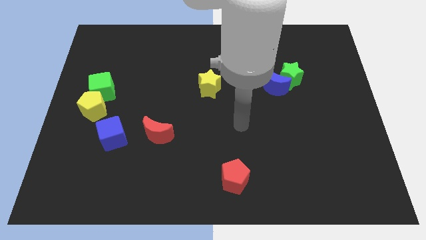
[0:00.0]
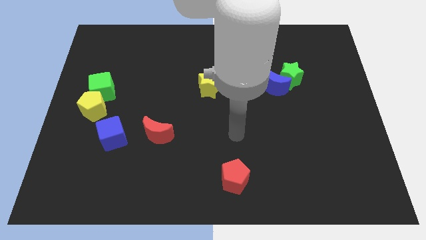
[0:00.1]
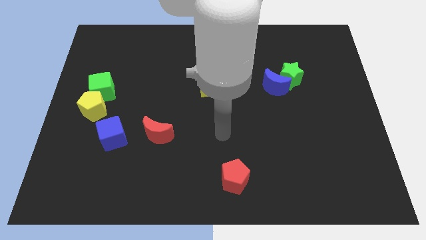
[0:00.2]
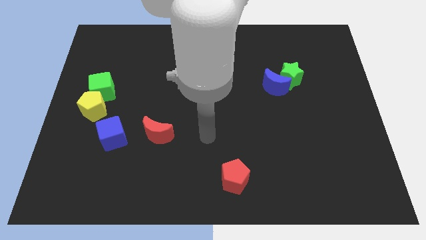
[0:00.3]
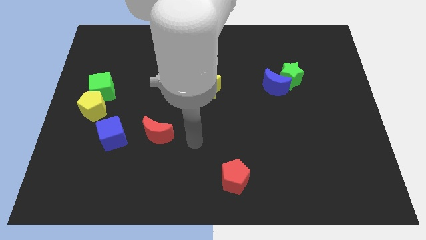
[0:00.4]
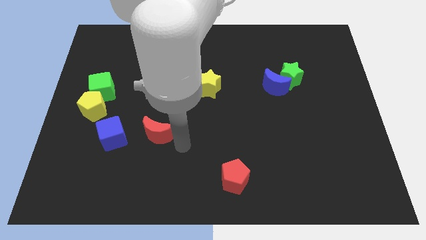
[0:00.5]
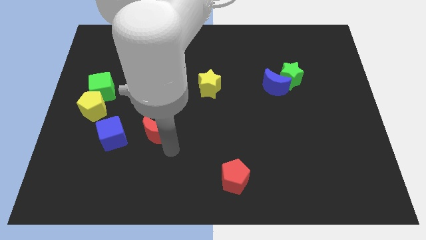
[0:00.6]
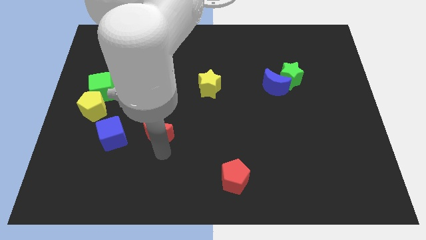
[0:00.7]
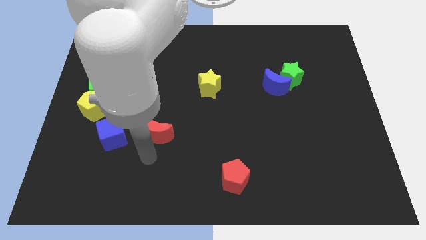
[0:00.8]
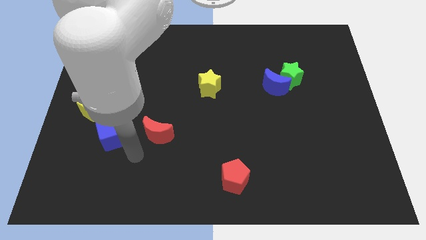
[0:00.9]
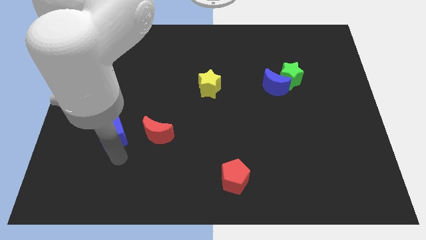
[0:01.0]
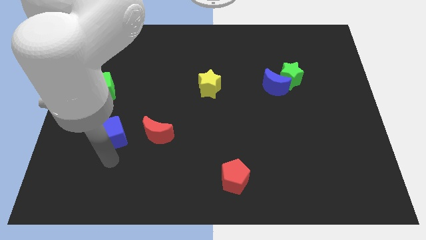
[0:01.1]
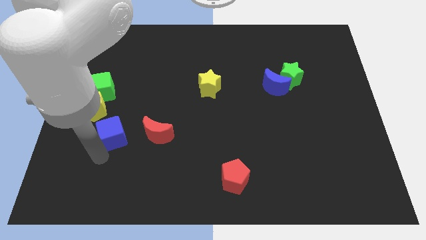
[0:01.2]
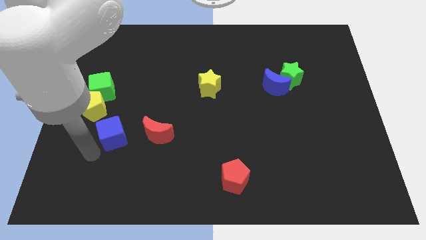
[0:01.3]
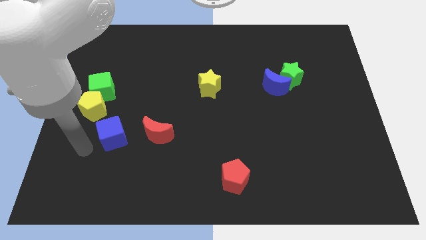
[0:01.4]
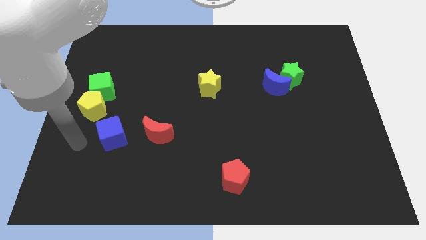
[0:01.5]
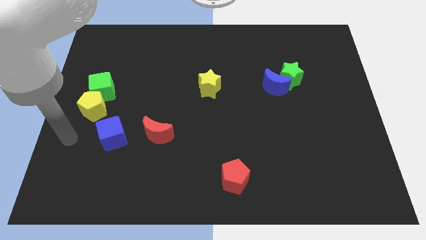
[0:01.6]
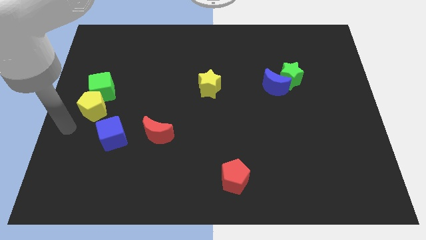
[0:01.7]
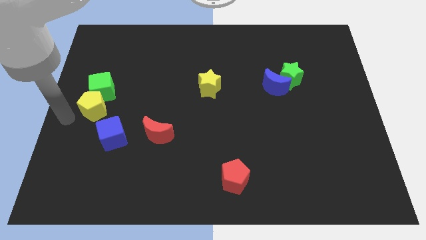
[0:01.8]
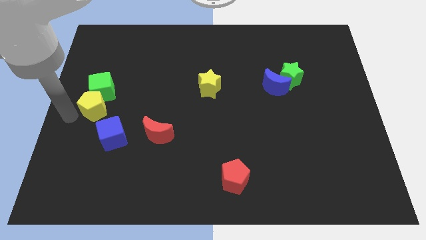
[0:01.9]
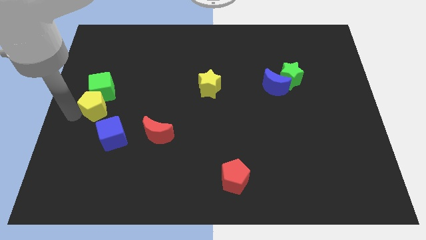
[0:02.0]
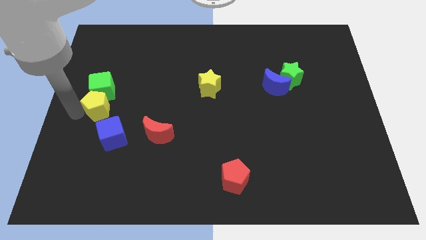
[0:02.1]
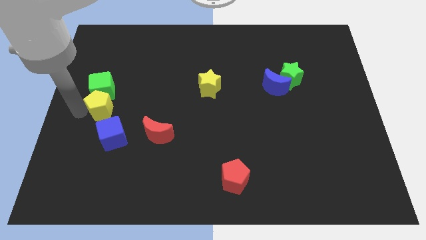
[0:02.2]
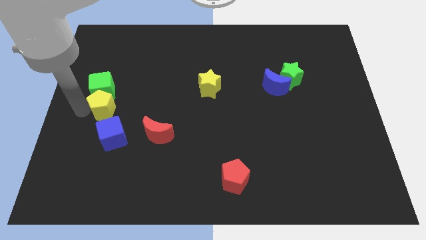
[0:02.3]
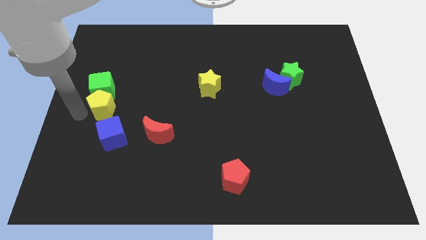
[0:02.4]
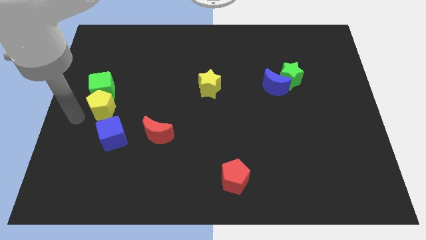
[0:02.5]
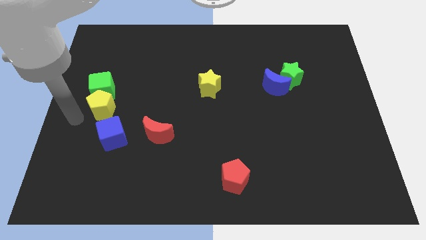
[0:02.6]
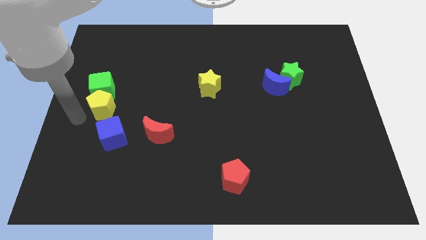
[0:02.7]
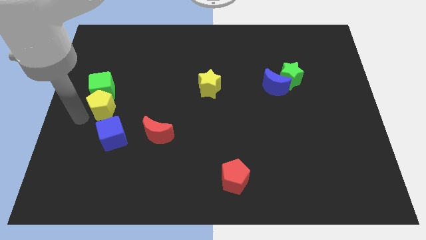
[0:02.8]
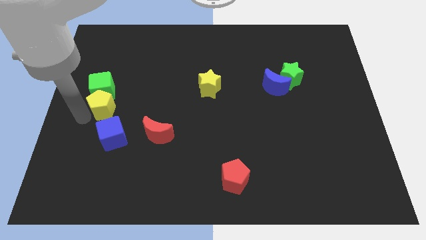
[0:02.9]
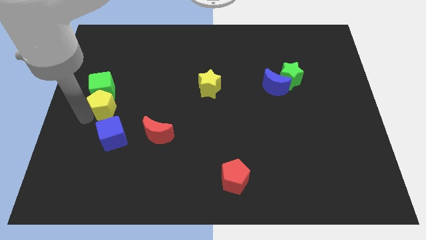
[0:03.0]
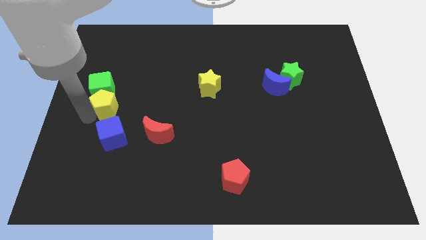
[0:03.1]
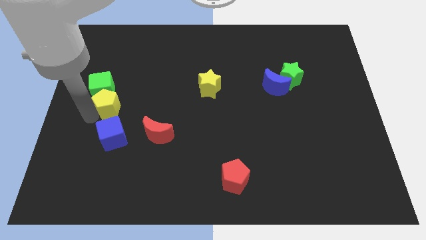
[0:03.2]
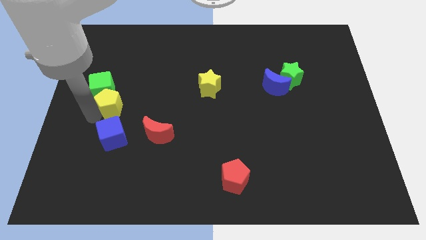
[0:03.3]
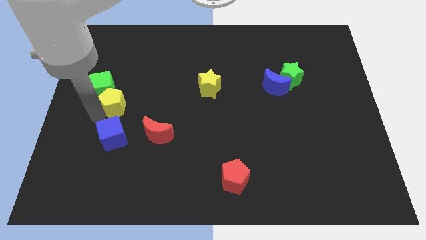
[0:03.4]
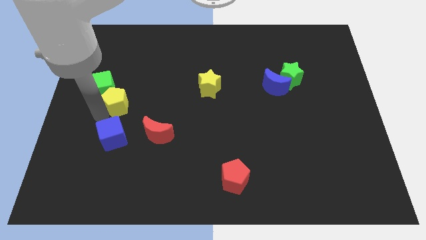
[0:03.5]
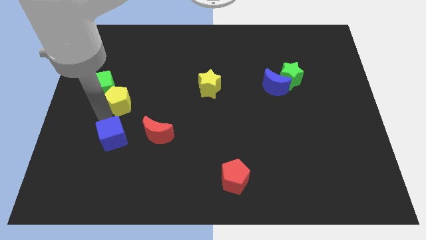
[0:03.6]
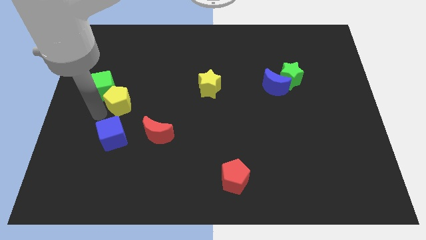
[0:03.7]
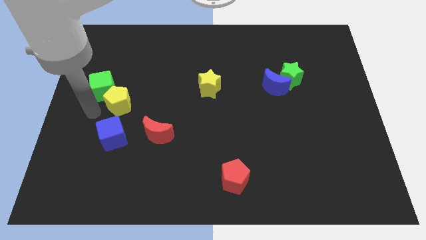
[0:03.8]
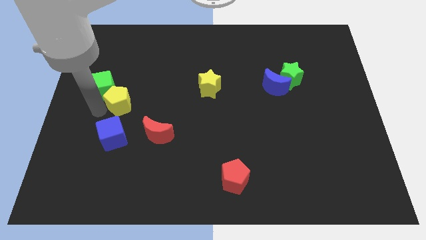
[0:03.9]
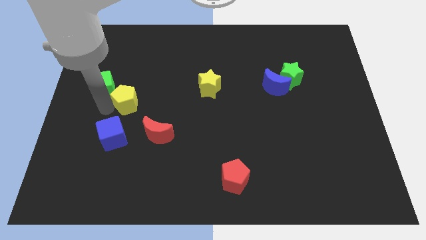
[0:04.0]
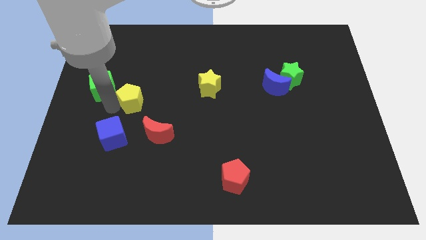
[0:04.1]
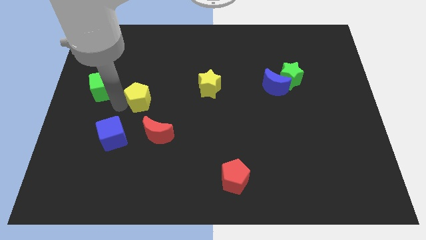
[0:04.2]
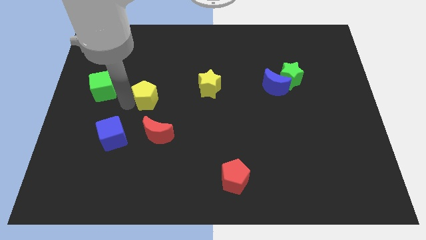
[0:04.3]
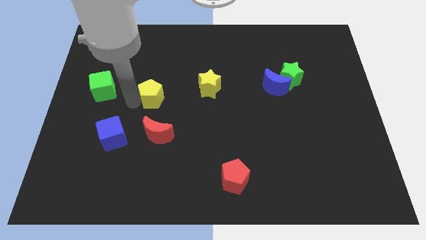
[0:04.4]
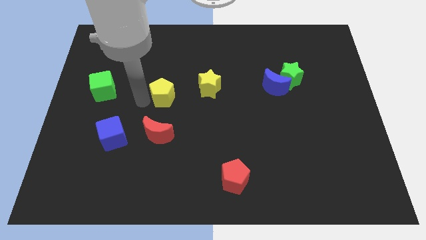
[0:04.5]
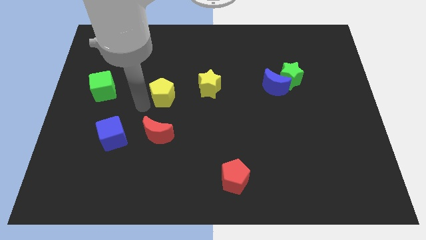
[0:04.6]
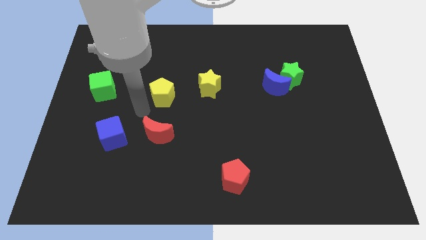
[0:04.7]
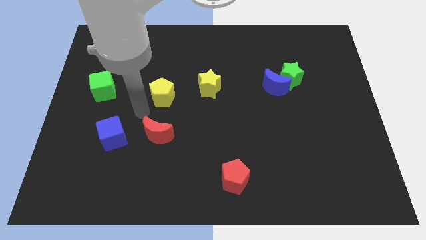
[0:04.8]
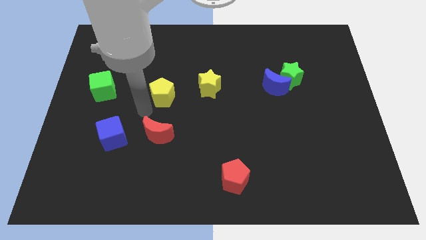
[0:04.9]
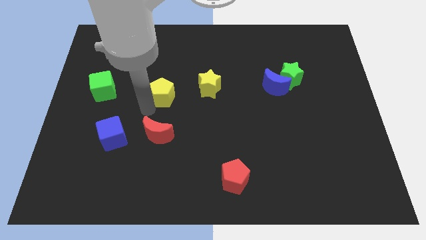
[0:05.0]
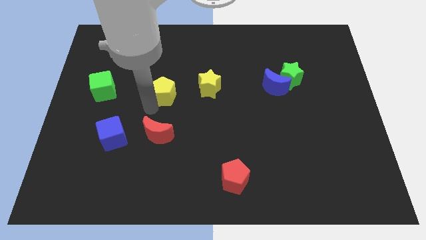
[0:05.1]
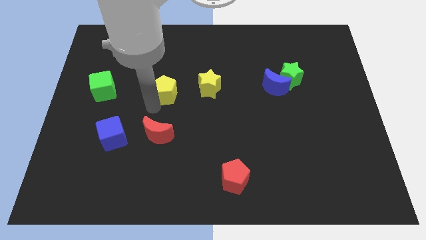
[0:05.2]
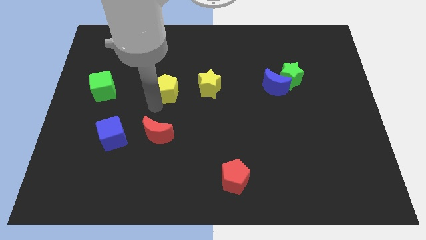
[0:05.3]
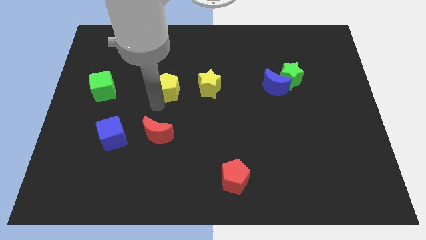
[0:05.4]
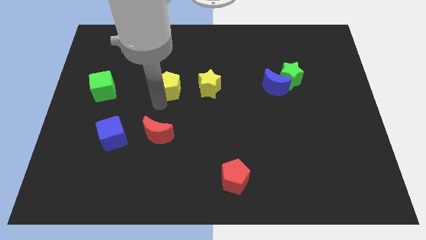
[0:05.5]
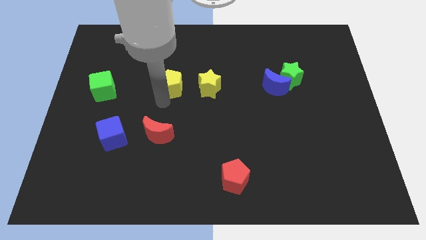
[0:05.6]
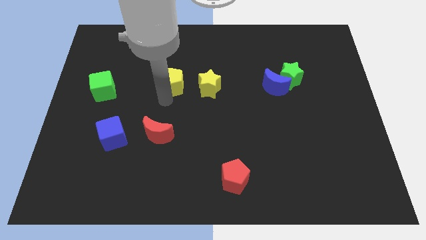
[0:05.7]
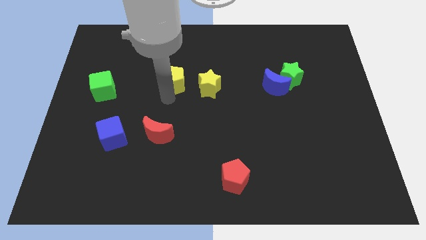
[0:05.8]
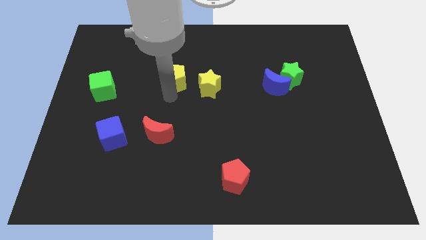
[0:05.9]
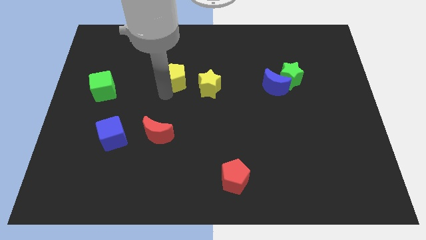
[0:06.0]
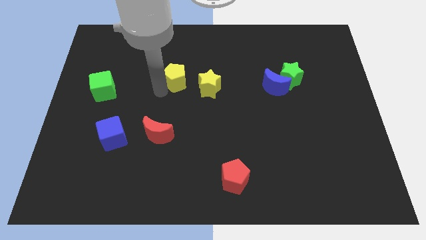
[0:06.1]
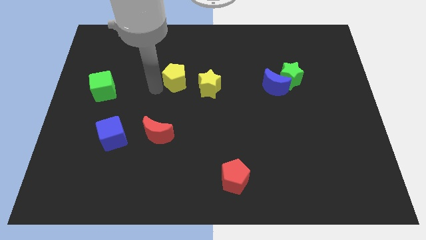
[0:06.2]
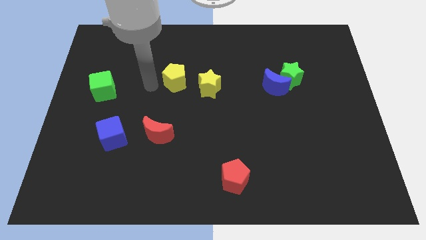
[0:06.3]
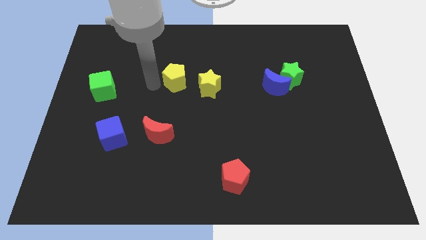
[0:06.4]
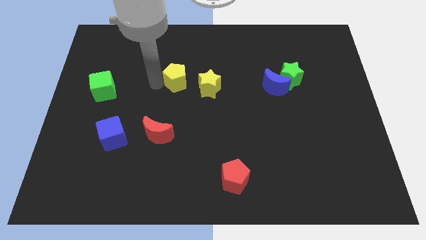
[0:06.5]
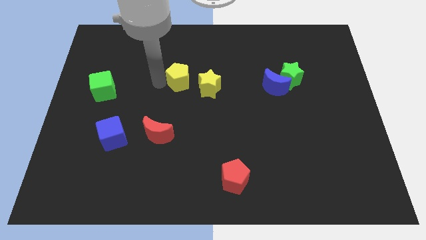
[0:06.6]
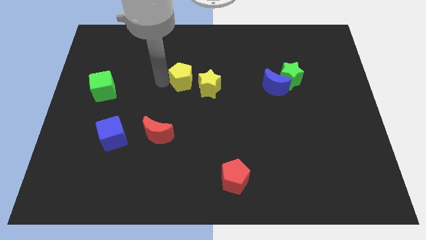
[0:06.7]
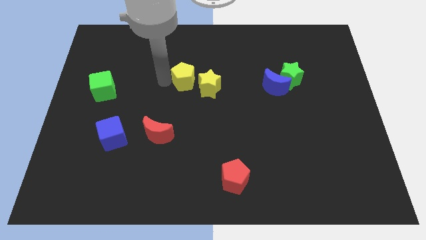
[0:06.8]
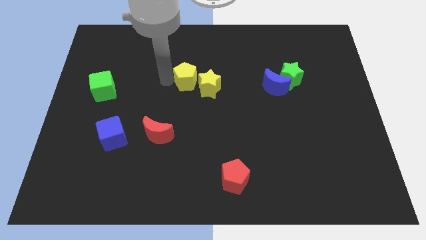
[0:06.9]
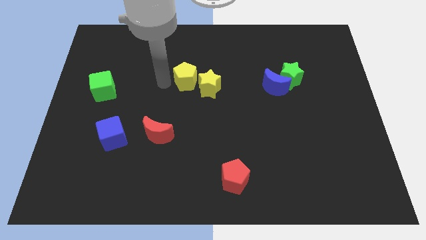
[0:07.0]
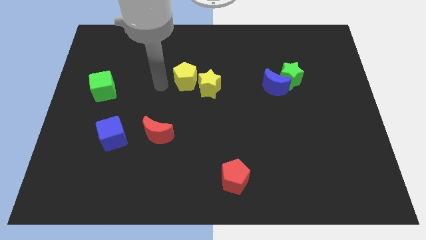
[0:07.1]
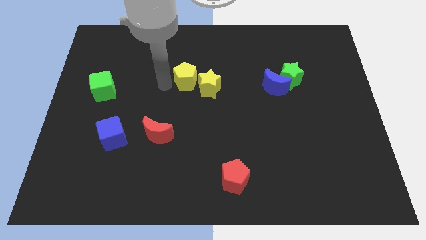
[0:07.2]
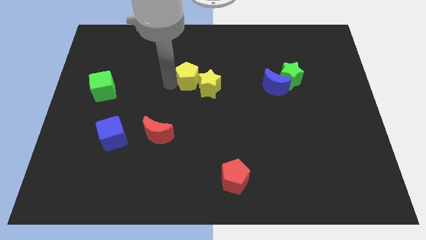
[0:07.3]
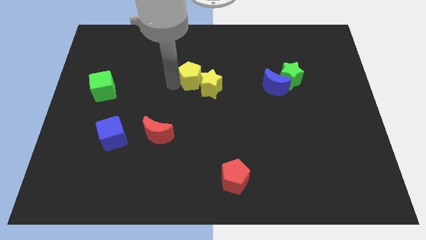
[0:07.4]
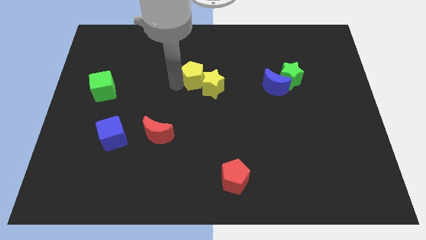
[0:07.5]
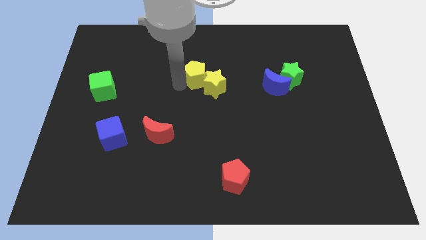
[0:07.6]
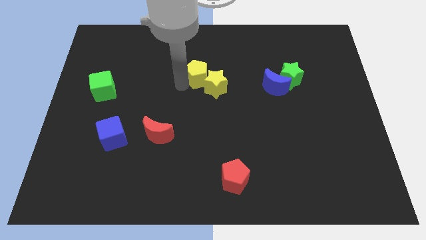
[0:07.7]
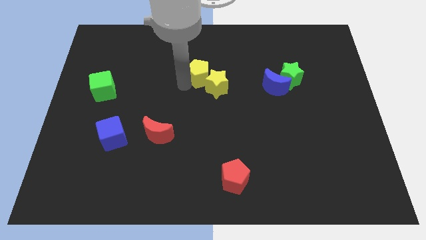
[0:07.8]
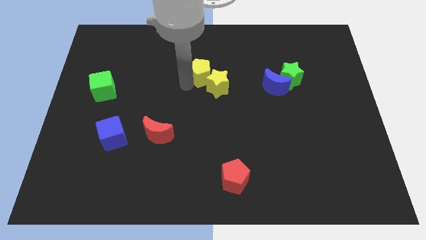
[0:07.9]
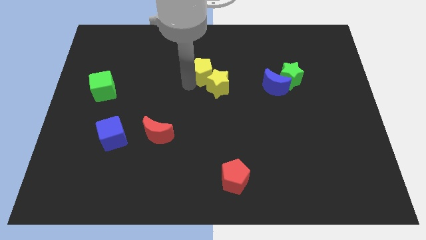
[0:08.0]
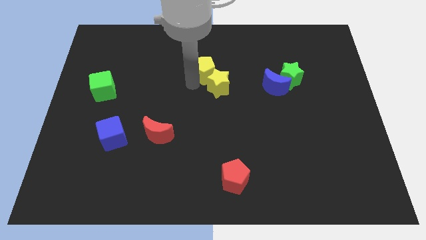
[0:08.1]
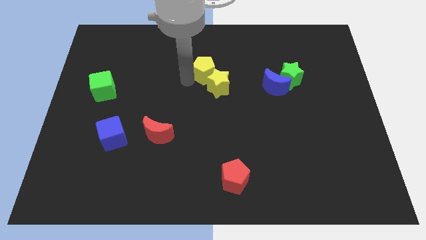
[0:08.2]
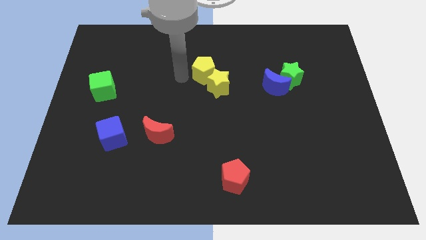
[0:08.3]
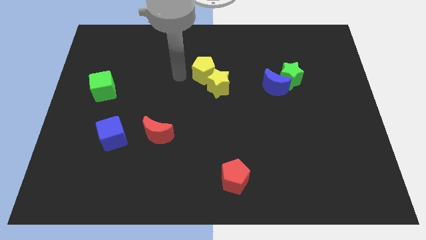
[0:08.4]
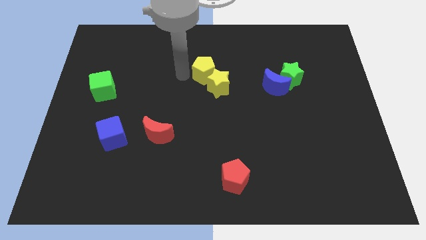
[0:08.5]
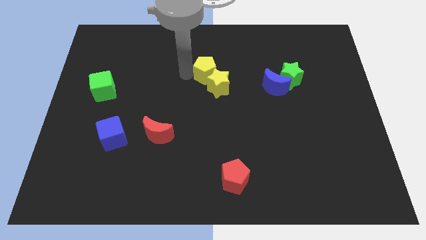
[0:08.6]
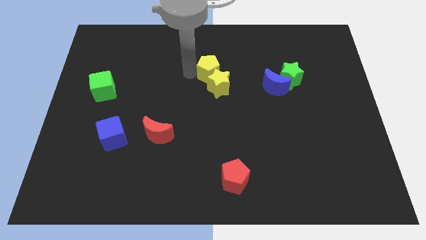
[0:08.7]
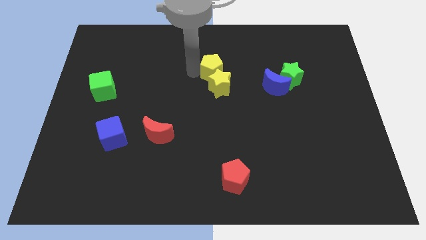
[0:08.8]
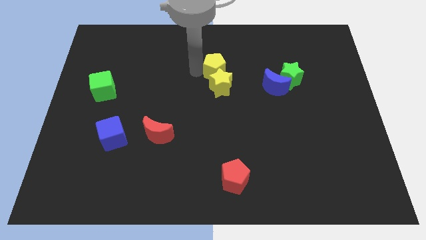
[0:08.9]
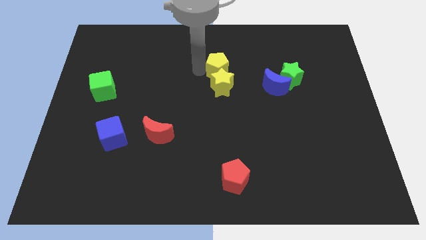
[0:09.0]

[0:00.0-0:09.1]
put the yellow pentagon to the top right of the yellow star
